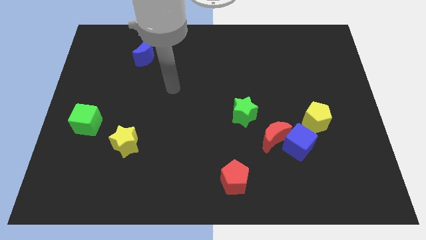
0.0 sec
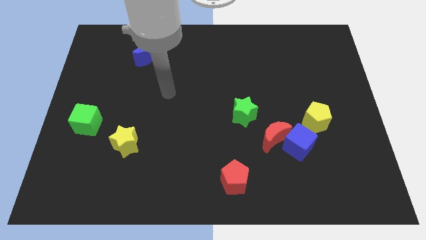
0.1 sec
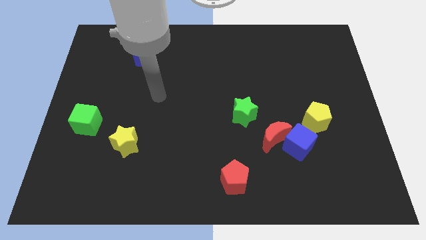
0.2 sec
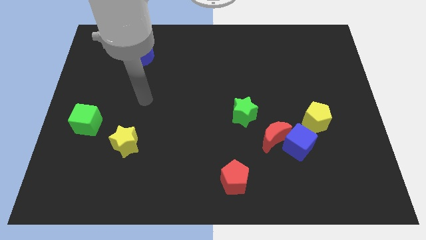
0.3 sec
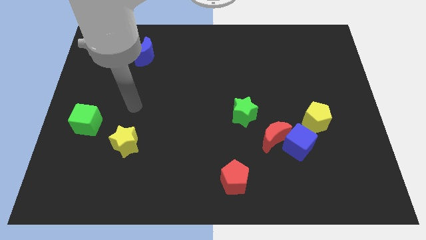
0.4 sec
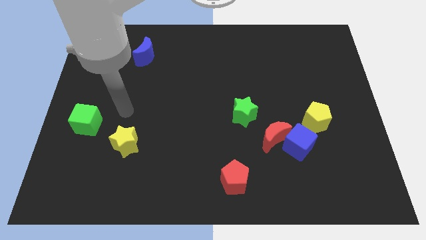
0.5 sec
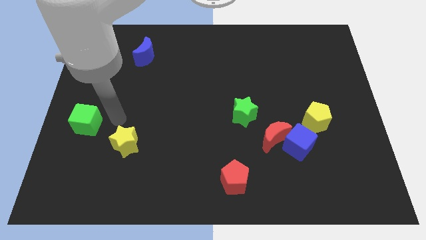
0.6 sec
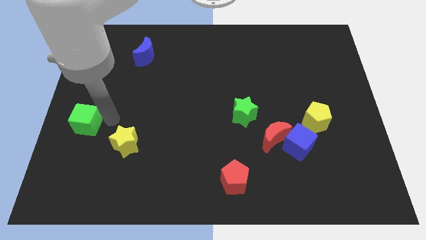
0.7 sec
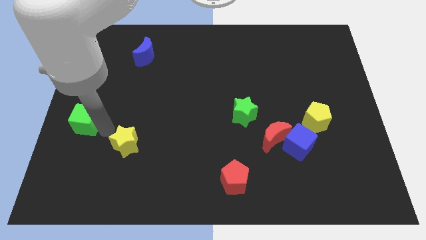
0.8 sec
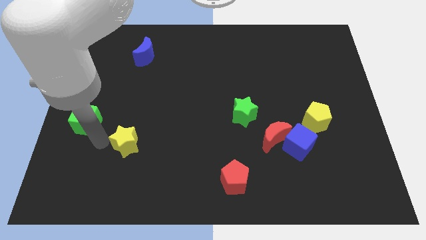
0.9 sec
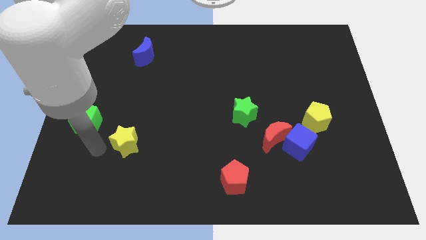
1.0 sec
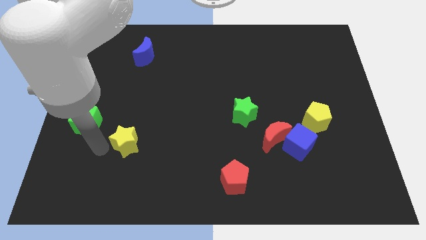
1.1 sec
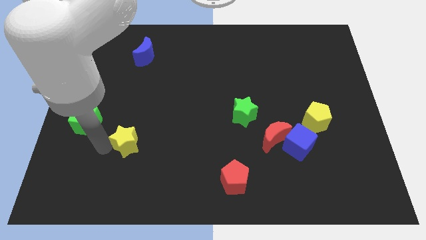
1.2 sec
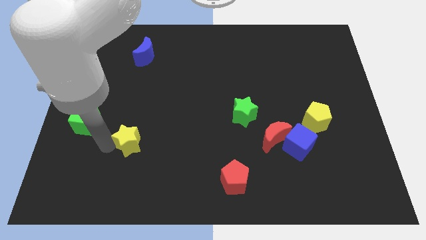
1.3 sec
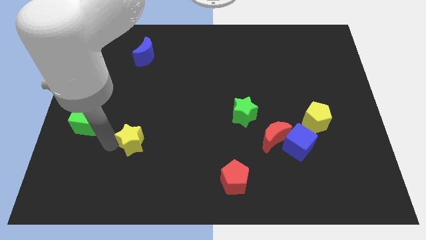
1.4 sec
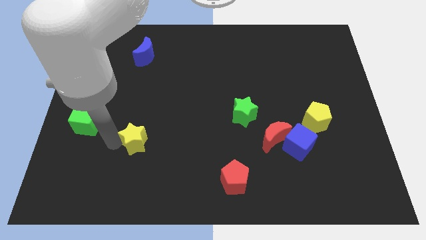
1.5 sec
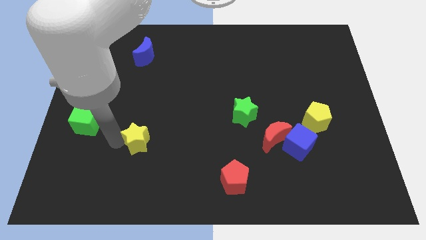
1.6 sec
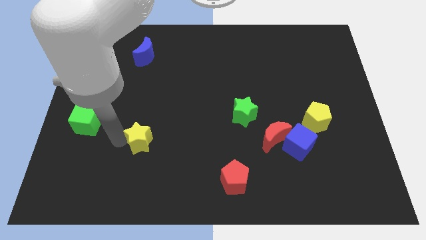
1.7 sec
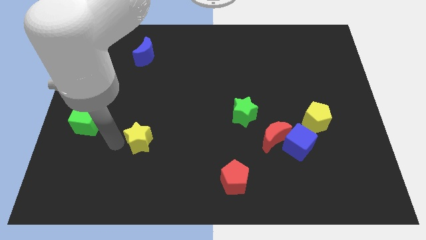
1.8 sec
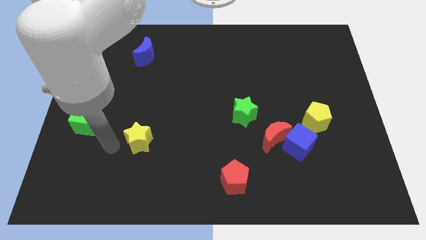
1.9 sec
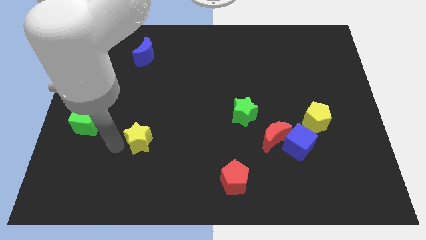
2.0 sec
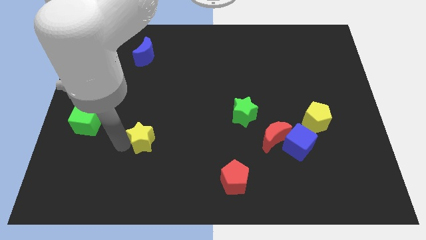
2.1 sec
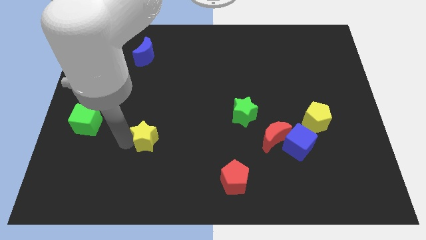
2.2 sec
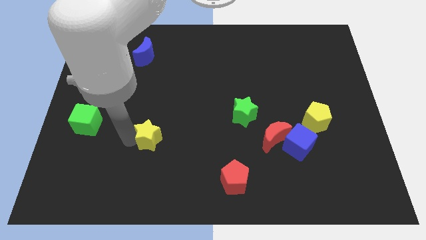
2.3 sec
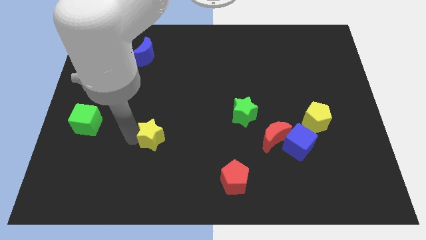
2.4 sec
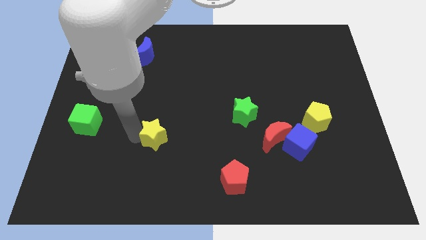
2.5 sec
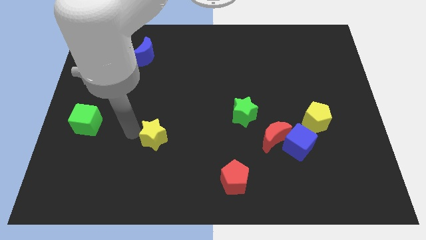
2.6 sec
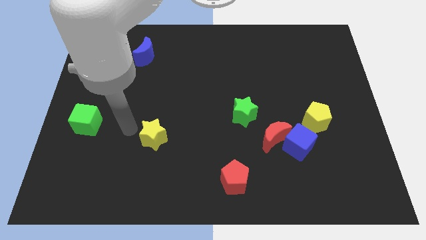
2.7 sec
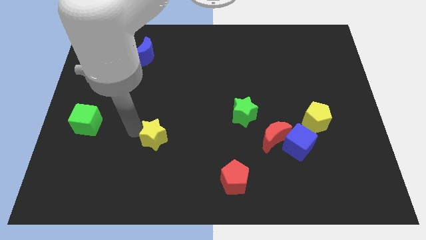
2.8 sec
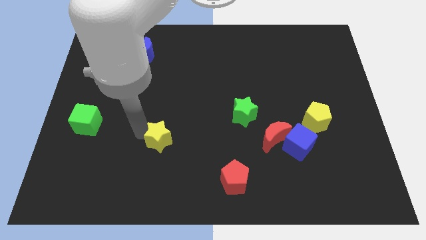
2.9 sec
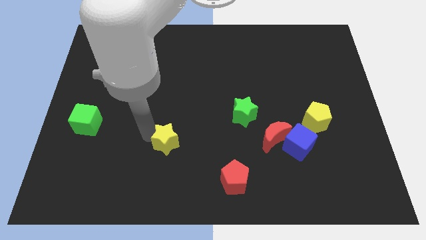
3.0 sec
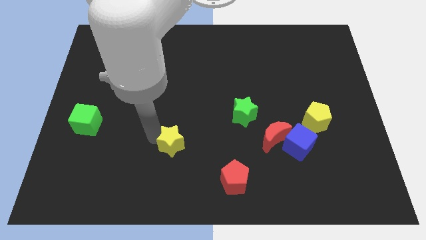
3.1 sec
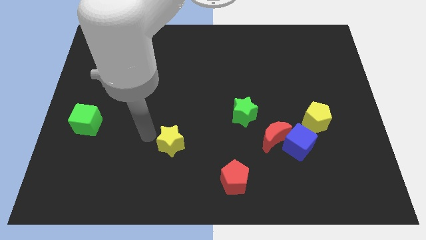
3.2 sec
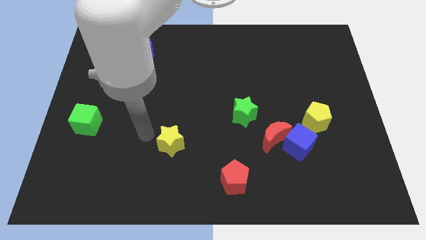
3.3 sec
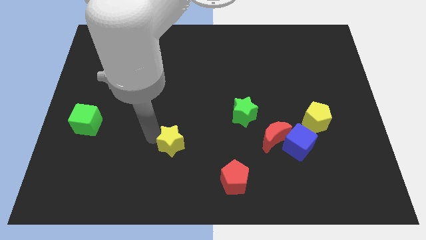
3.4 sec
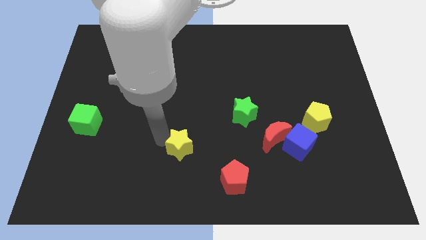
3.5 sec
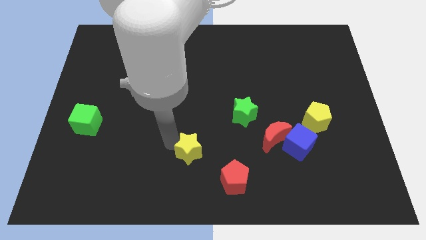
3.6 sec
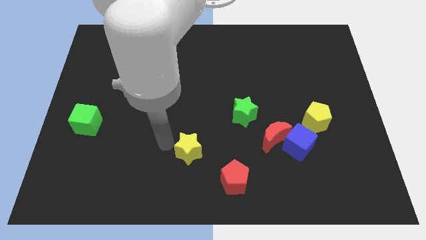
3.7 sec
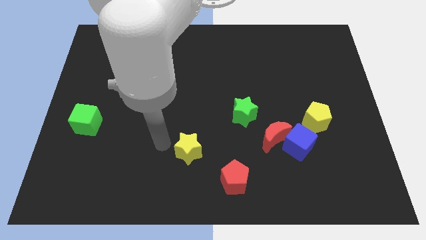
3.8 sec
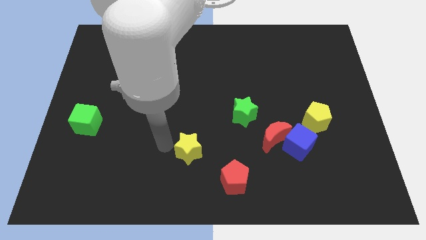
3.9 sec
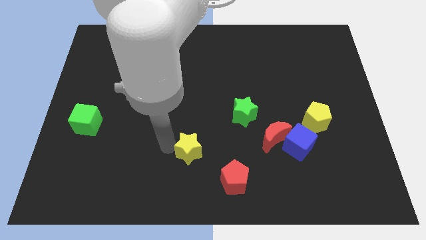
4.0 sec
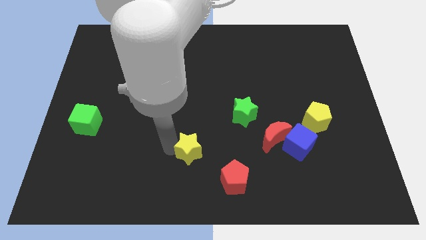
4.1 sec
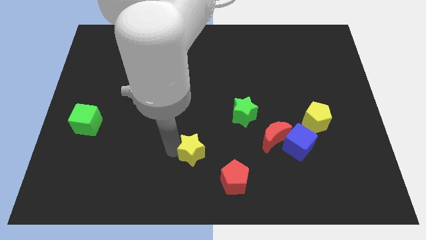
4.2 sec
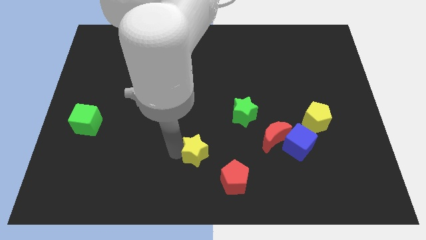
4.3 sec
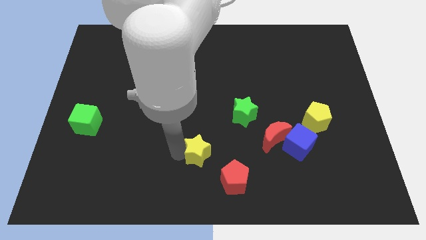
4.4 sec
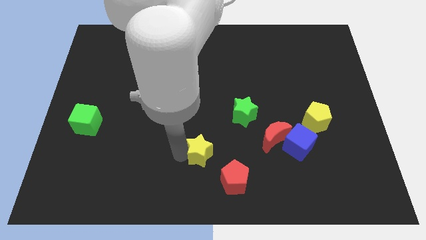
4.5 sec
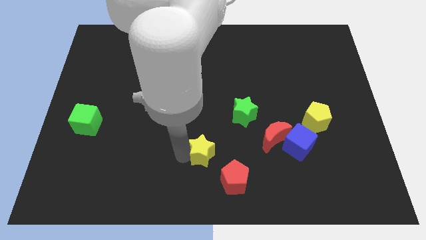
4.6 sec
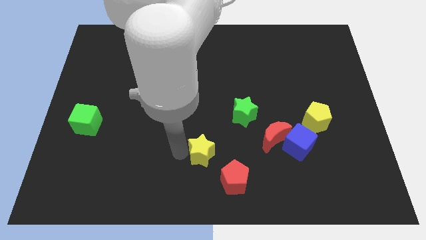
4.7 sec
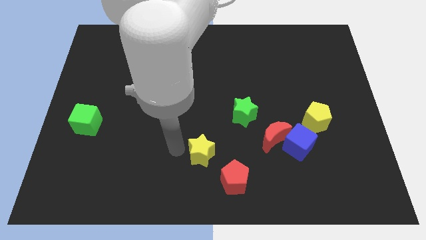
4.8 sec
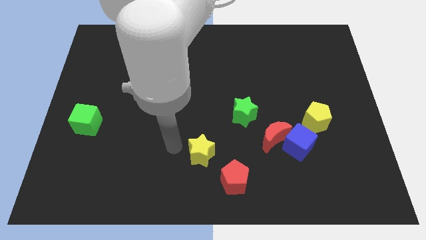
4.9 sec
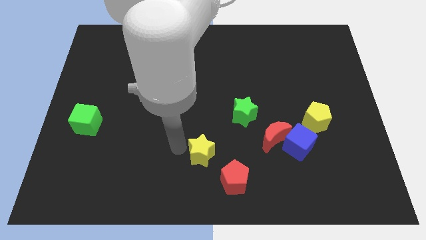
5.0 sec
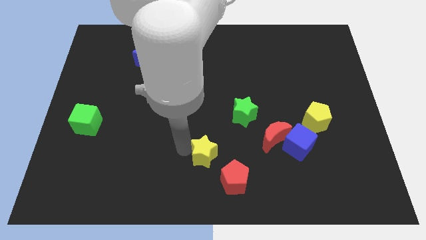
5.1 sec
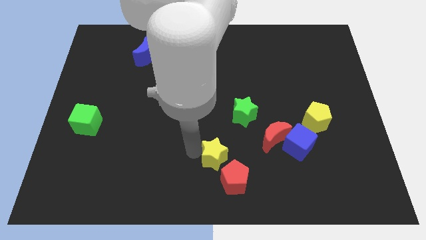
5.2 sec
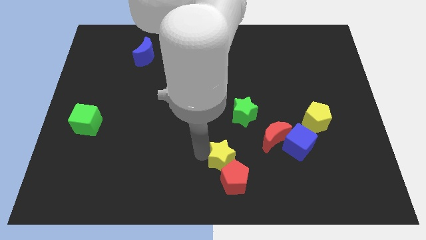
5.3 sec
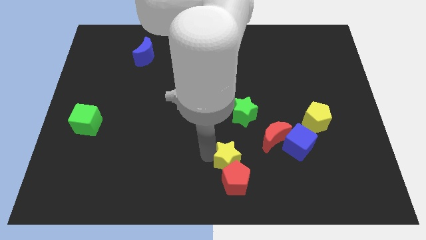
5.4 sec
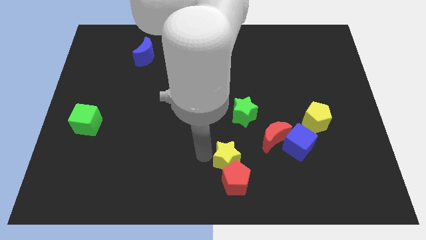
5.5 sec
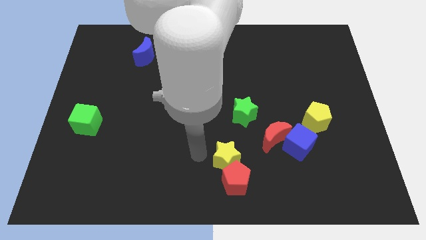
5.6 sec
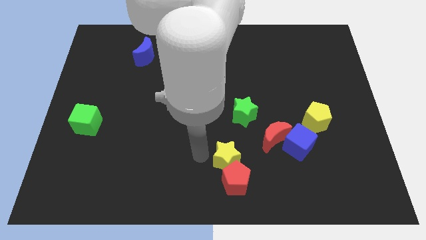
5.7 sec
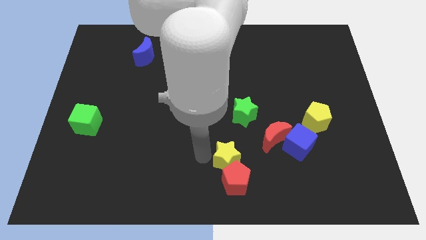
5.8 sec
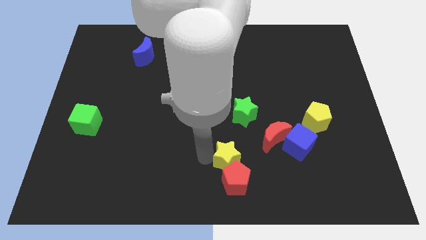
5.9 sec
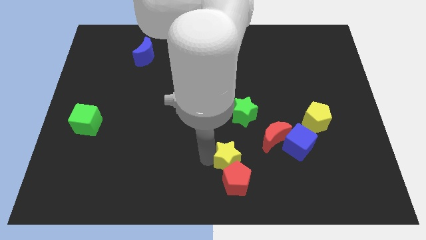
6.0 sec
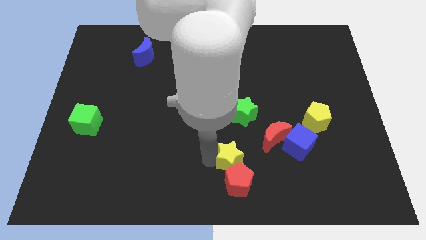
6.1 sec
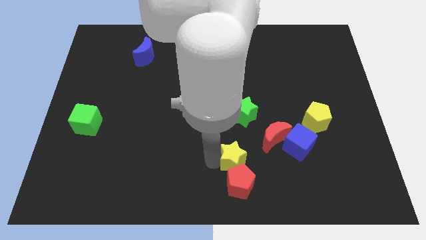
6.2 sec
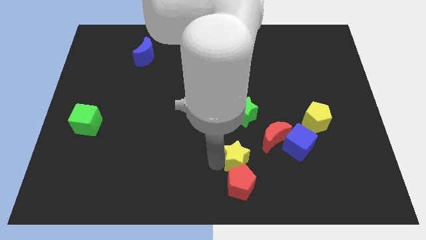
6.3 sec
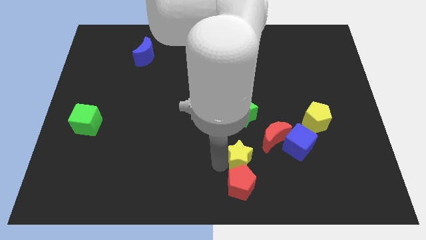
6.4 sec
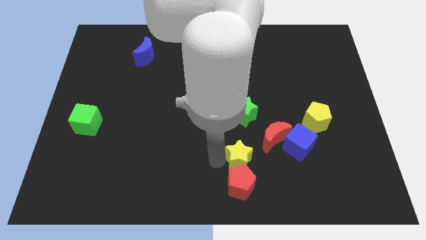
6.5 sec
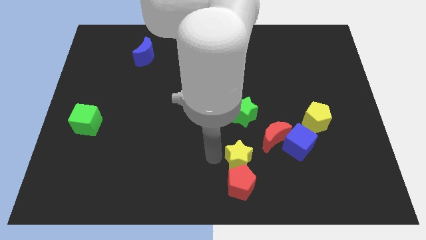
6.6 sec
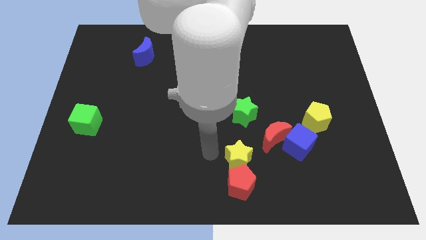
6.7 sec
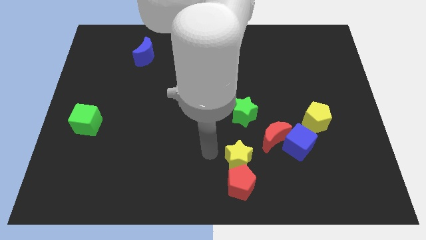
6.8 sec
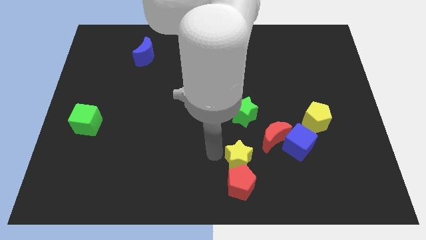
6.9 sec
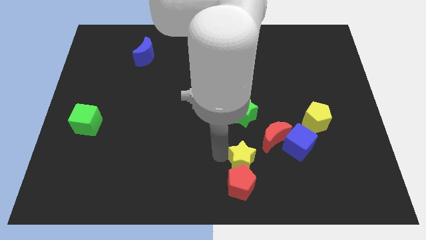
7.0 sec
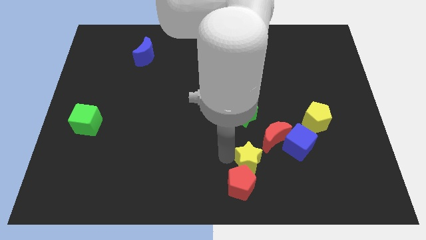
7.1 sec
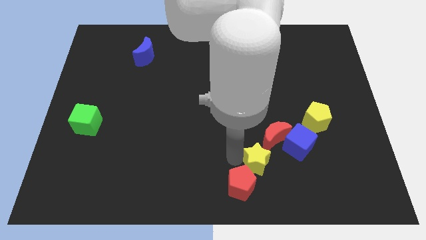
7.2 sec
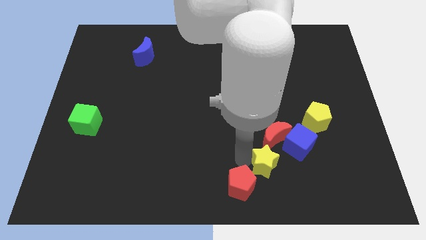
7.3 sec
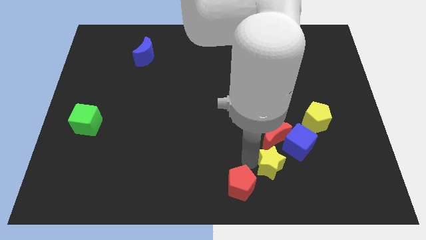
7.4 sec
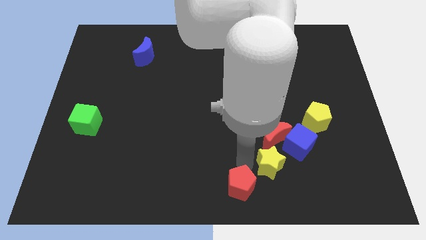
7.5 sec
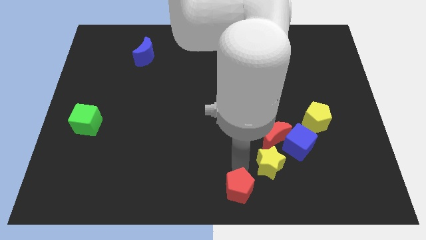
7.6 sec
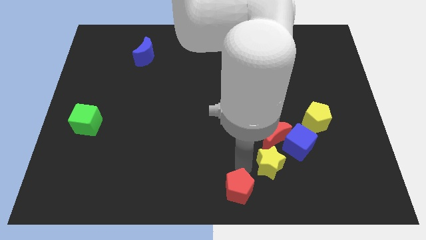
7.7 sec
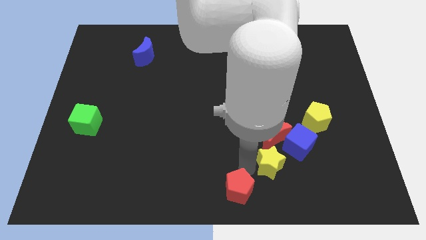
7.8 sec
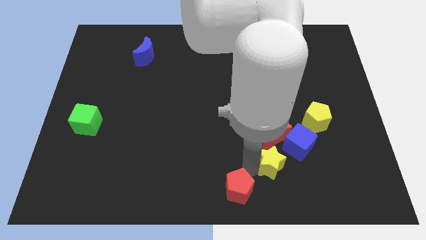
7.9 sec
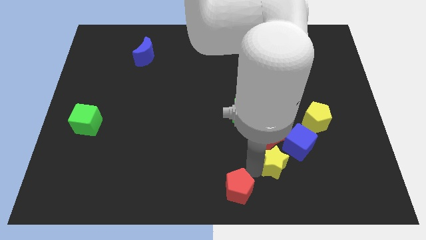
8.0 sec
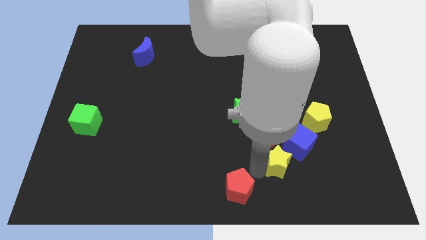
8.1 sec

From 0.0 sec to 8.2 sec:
move the yellow star to the bottom right side of the red moon
